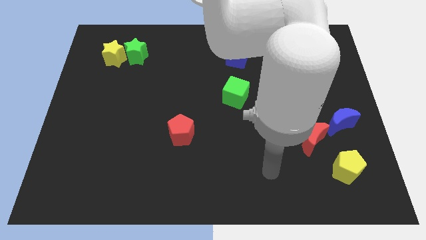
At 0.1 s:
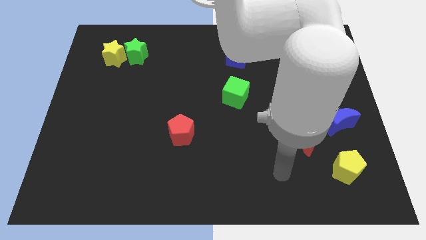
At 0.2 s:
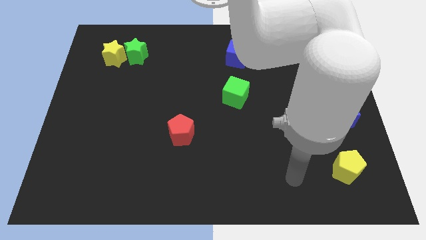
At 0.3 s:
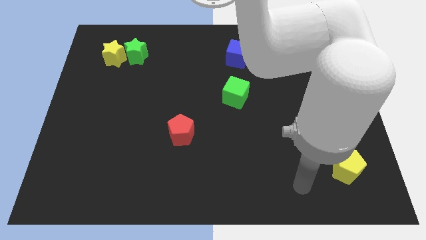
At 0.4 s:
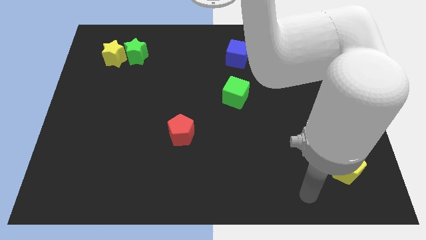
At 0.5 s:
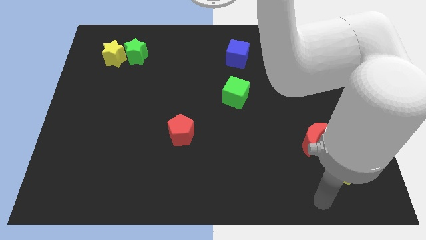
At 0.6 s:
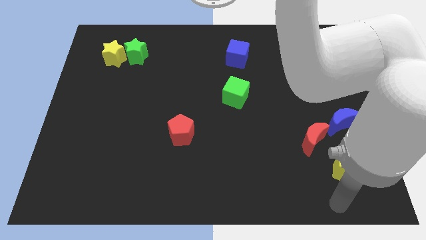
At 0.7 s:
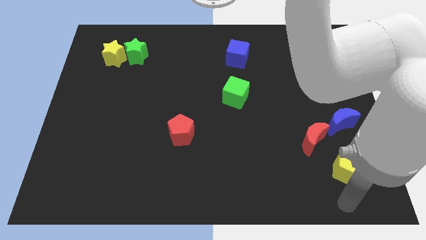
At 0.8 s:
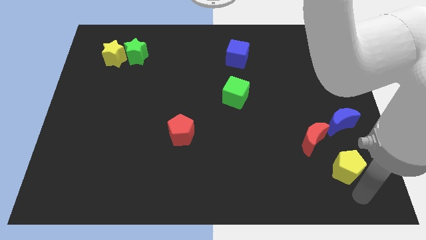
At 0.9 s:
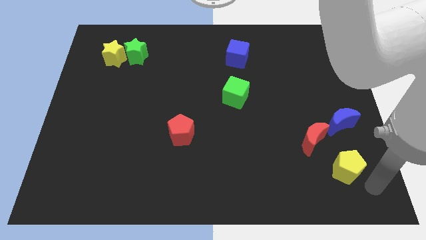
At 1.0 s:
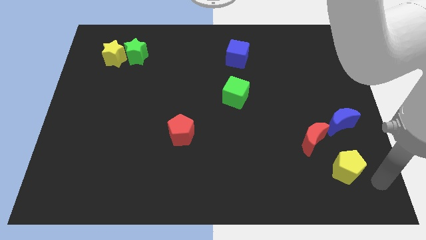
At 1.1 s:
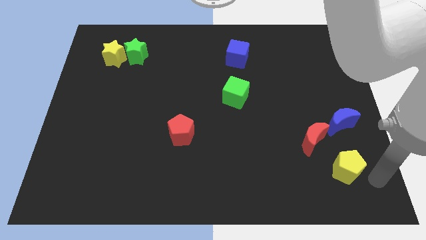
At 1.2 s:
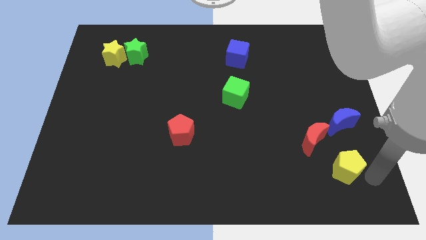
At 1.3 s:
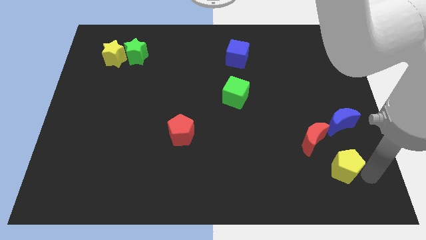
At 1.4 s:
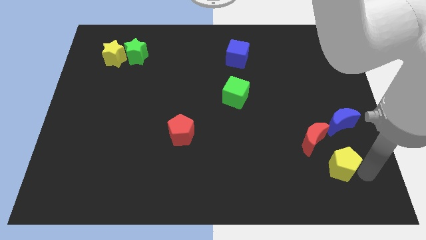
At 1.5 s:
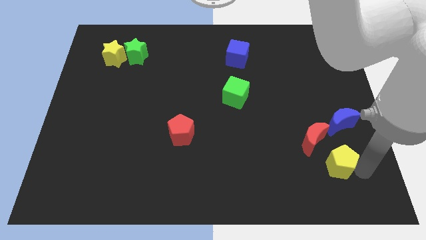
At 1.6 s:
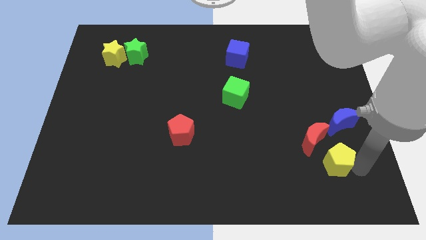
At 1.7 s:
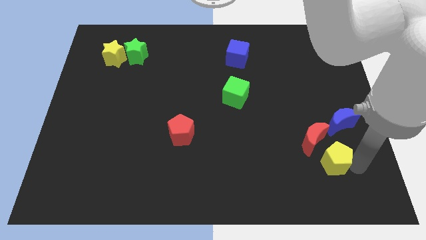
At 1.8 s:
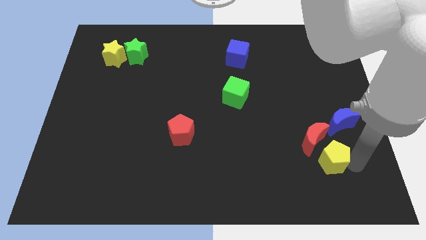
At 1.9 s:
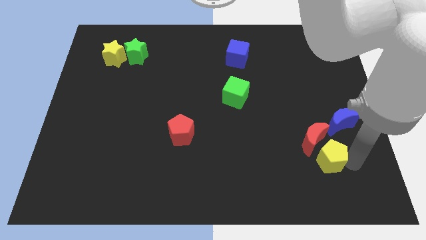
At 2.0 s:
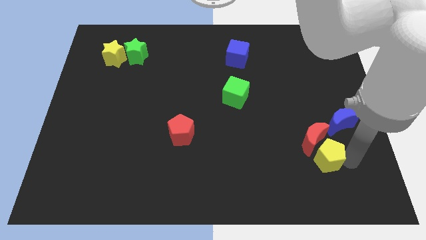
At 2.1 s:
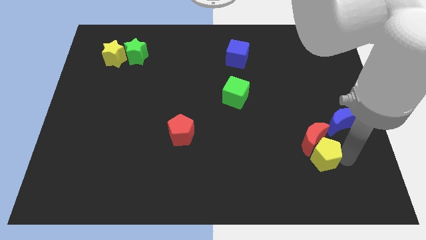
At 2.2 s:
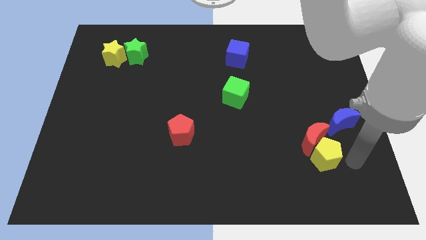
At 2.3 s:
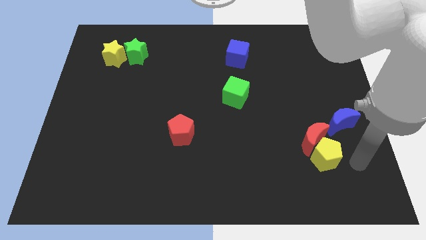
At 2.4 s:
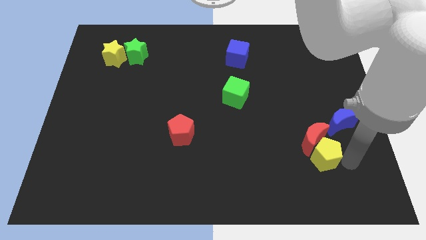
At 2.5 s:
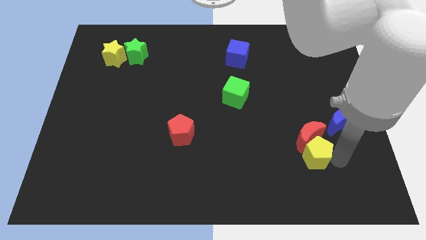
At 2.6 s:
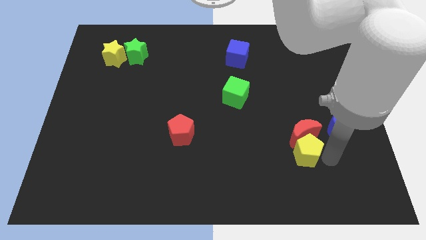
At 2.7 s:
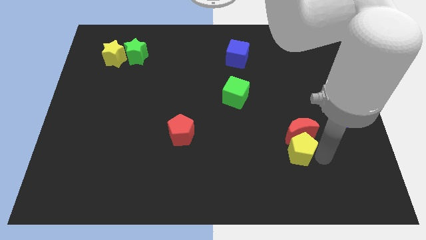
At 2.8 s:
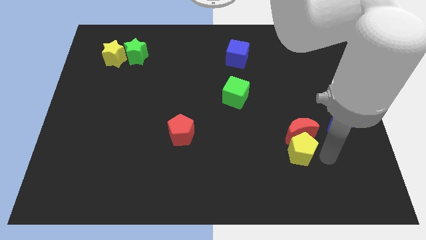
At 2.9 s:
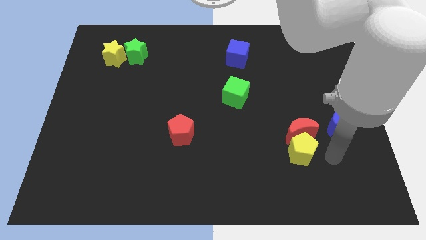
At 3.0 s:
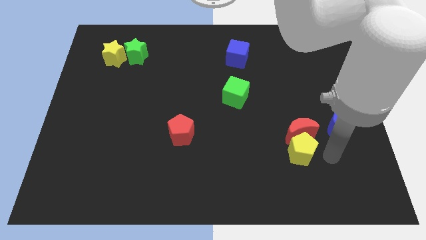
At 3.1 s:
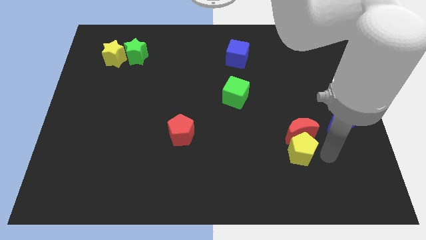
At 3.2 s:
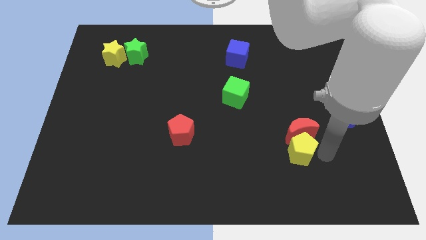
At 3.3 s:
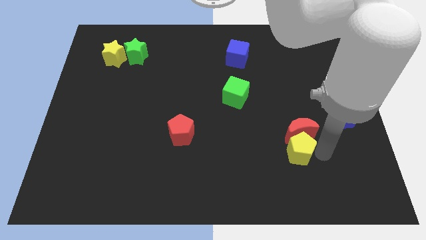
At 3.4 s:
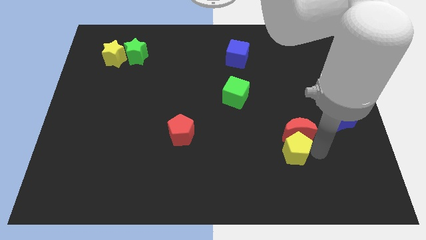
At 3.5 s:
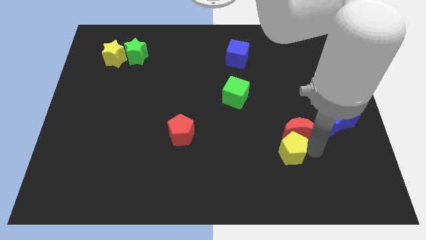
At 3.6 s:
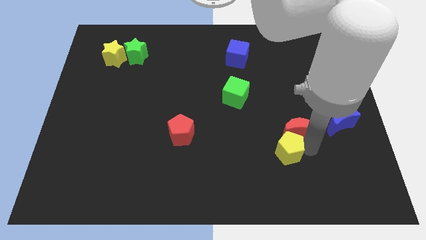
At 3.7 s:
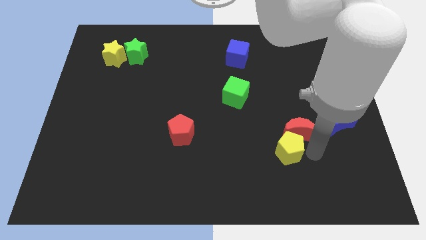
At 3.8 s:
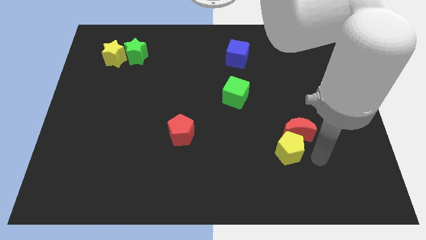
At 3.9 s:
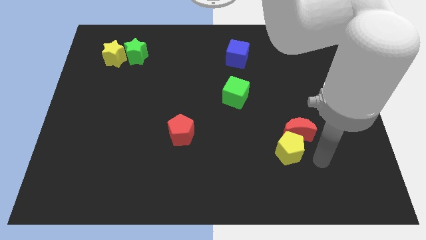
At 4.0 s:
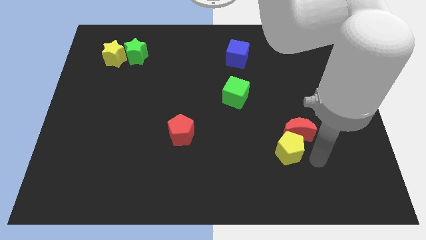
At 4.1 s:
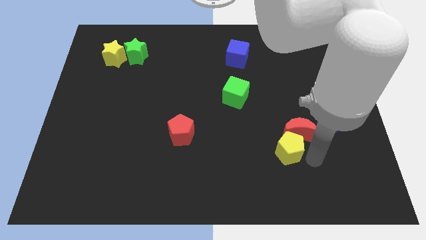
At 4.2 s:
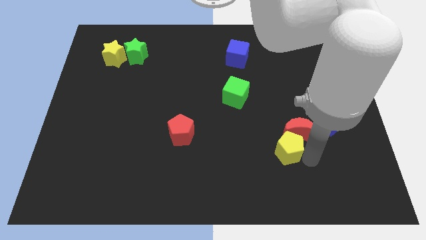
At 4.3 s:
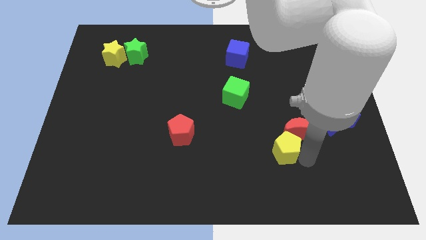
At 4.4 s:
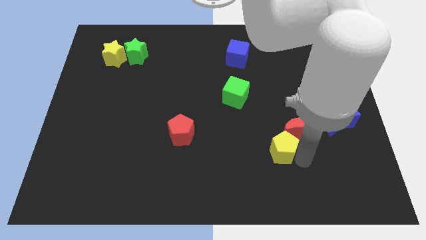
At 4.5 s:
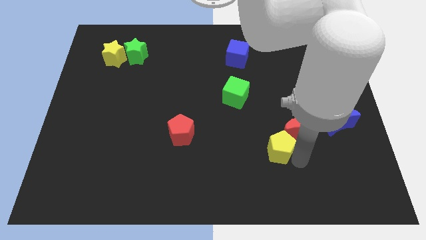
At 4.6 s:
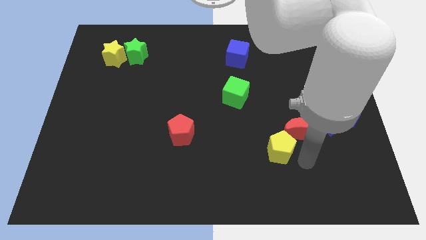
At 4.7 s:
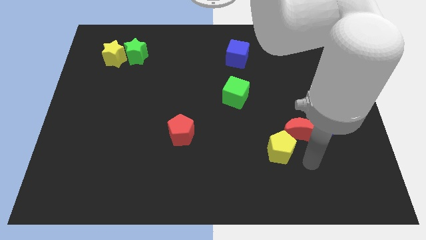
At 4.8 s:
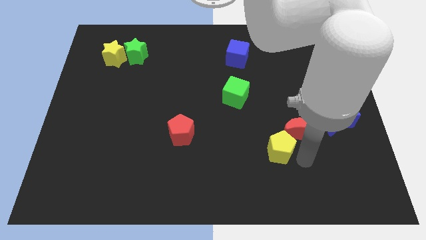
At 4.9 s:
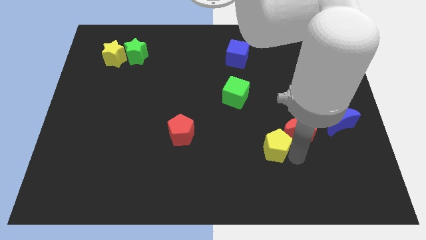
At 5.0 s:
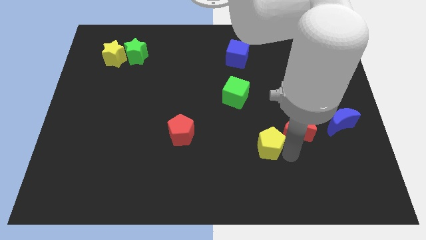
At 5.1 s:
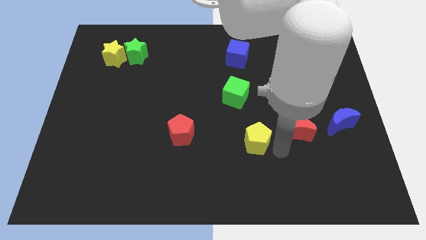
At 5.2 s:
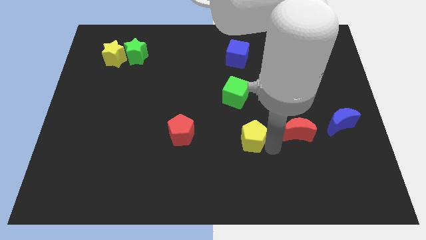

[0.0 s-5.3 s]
put the yellow pentagon just right of the red pentagon

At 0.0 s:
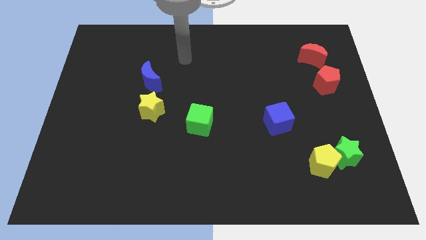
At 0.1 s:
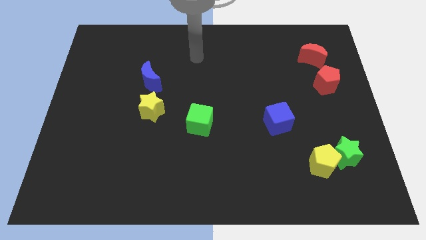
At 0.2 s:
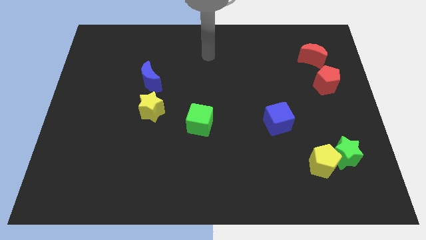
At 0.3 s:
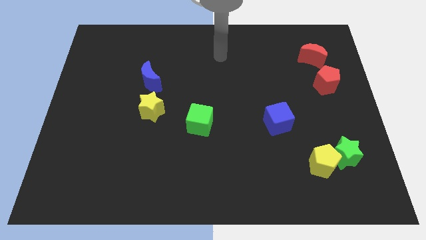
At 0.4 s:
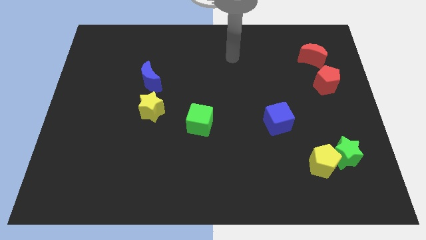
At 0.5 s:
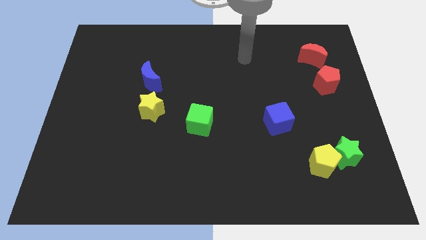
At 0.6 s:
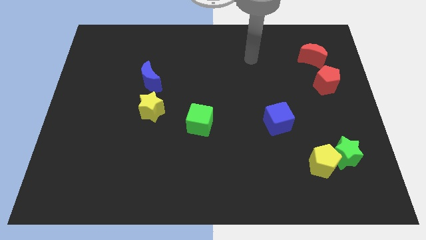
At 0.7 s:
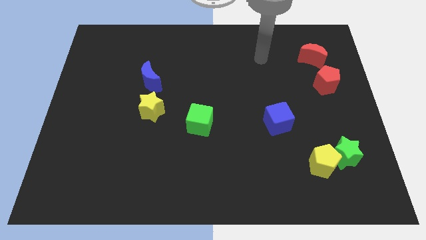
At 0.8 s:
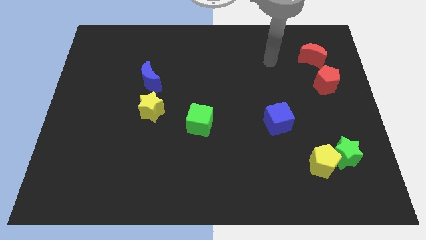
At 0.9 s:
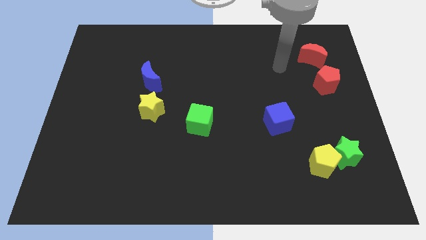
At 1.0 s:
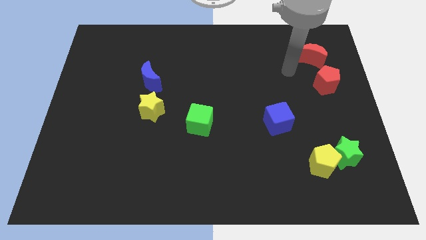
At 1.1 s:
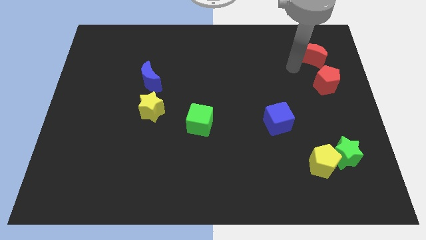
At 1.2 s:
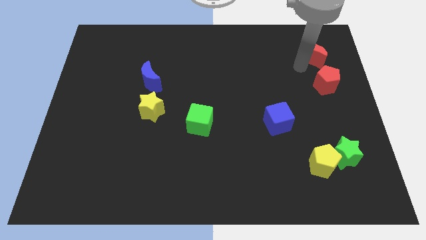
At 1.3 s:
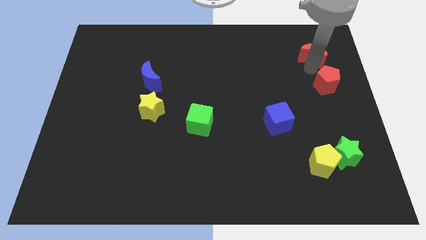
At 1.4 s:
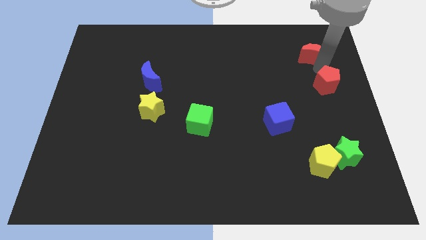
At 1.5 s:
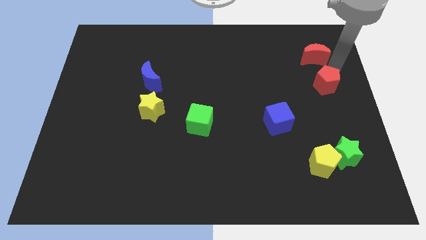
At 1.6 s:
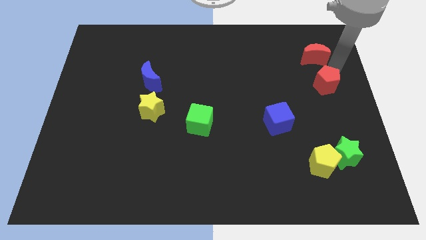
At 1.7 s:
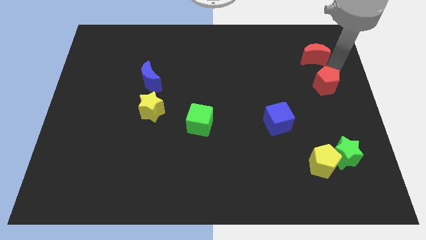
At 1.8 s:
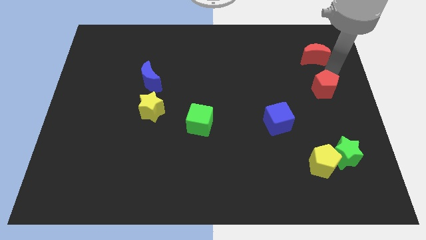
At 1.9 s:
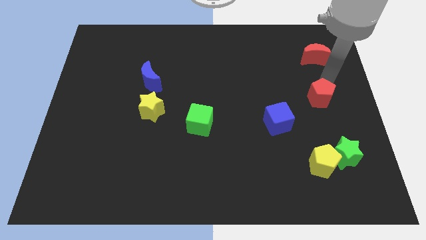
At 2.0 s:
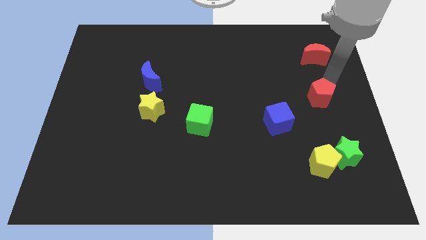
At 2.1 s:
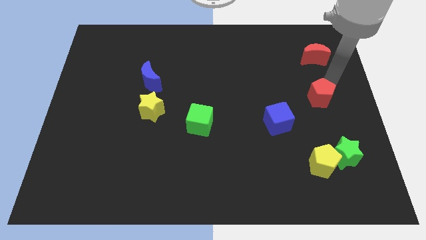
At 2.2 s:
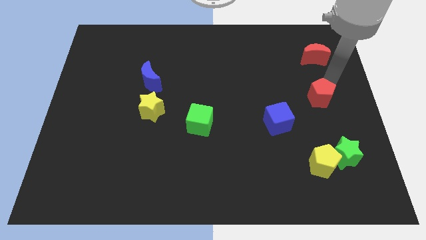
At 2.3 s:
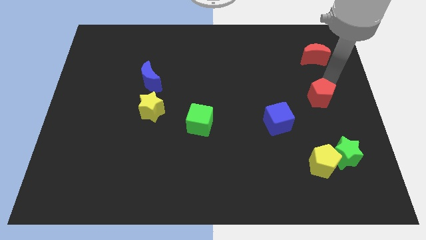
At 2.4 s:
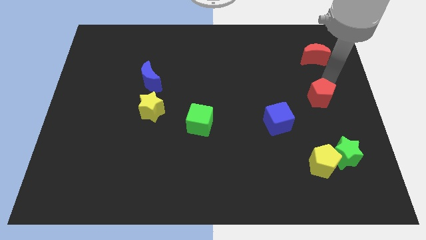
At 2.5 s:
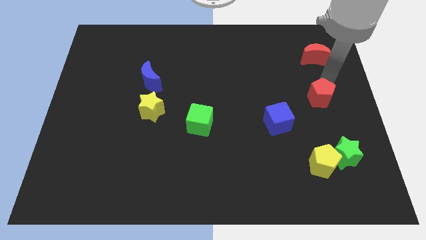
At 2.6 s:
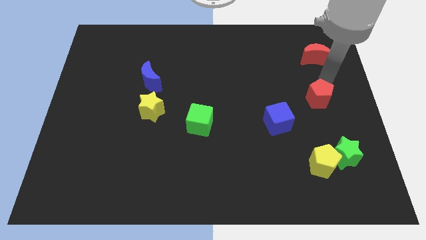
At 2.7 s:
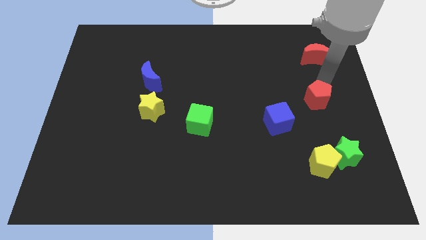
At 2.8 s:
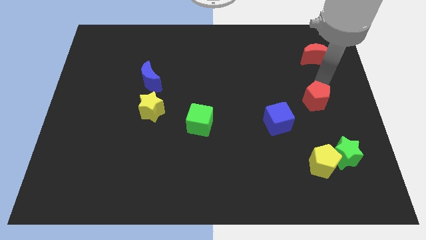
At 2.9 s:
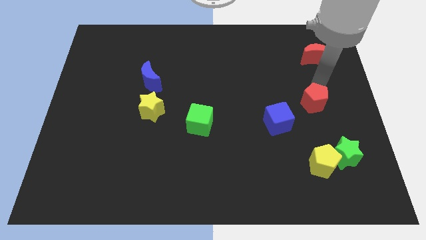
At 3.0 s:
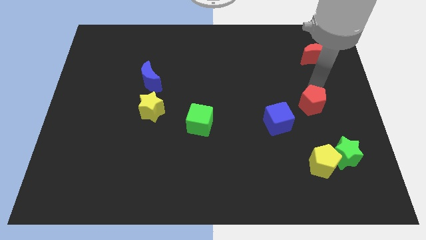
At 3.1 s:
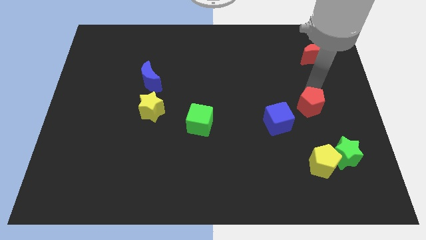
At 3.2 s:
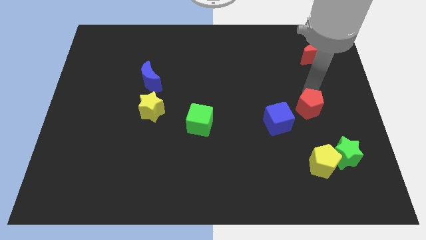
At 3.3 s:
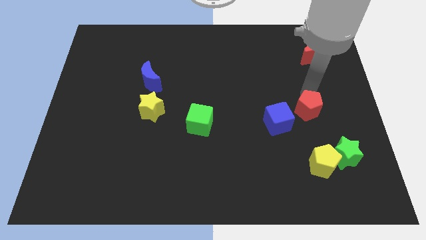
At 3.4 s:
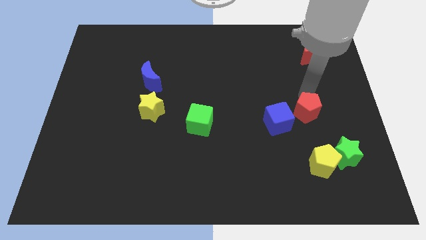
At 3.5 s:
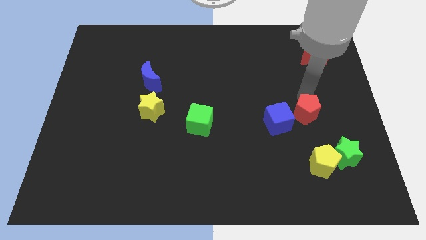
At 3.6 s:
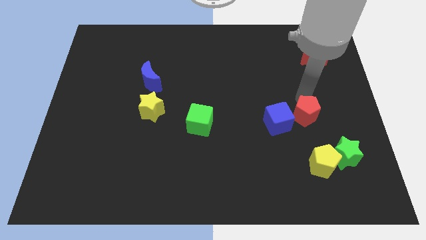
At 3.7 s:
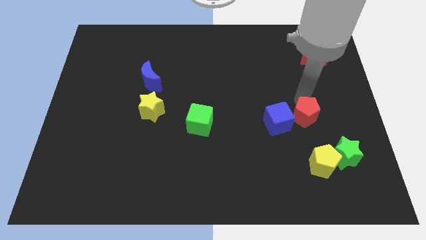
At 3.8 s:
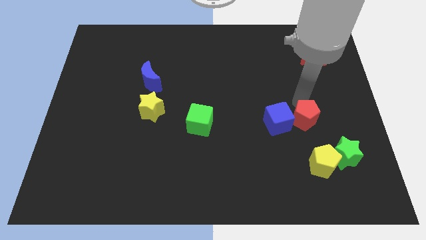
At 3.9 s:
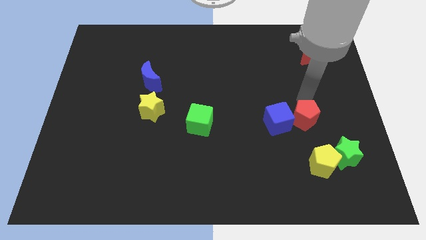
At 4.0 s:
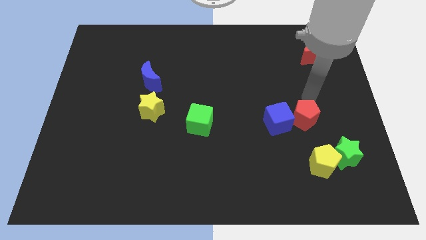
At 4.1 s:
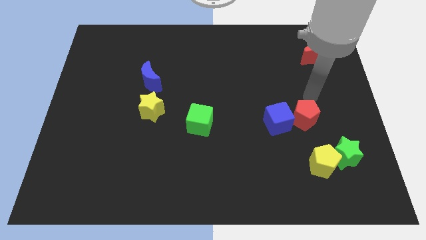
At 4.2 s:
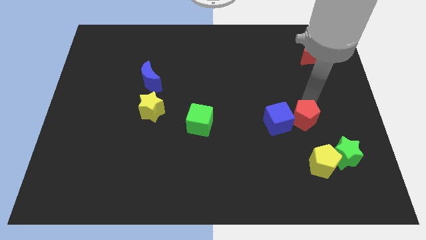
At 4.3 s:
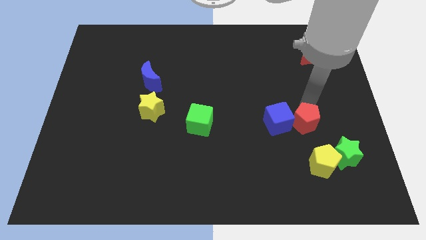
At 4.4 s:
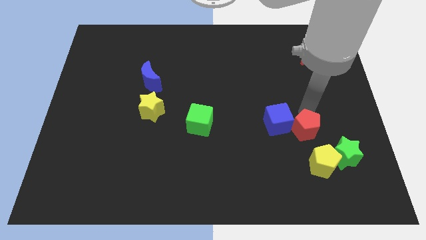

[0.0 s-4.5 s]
slide the red pentagon to the top left of the yellow pentagon
